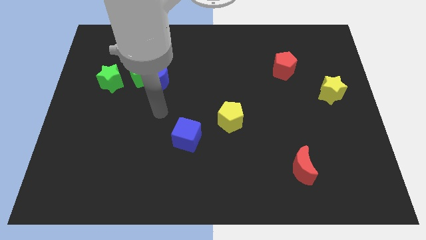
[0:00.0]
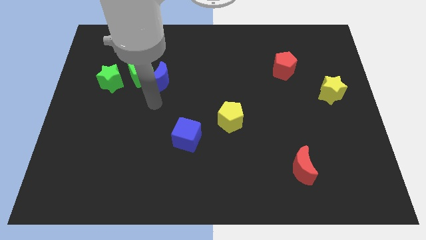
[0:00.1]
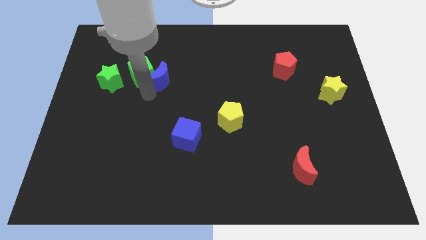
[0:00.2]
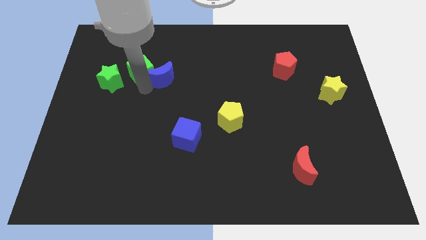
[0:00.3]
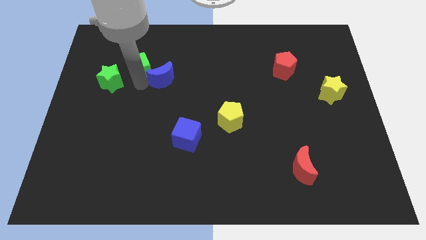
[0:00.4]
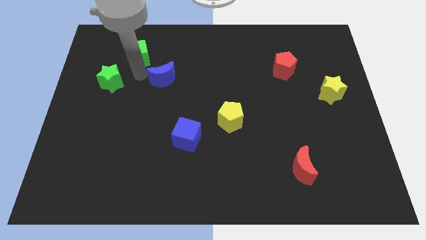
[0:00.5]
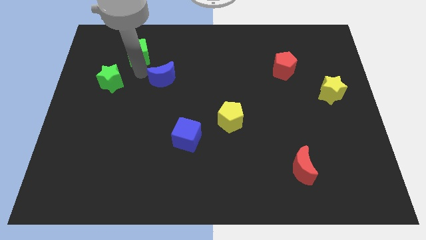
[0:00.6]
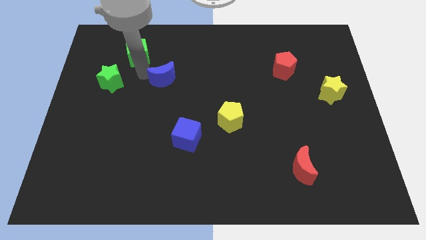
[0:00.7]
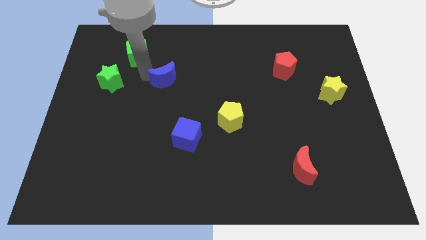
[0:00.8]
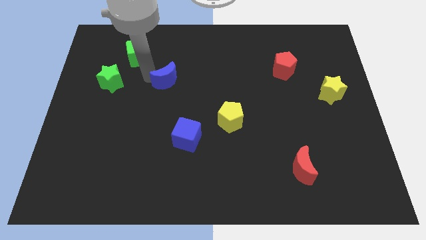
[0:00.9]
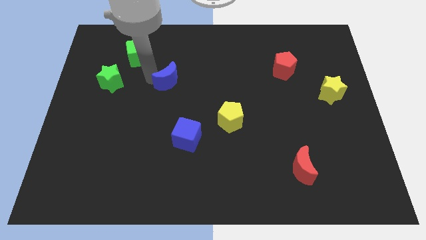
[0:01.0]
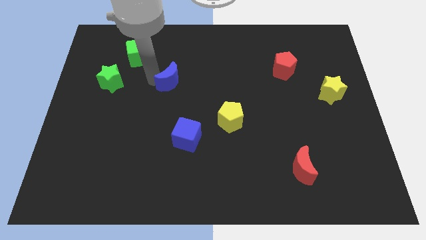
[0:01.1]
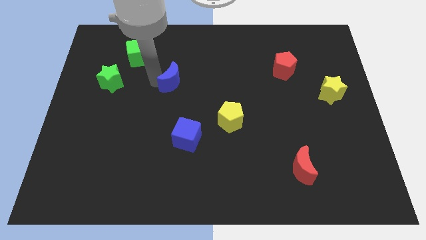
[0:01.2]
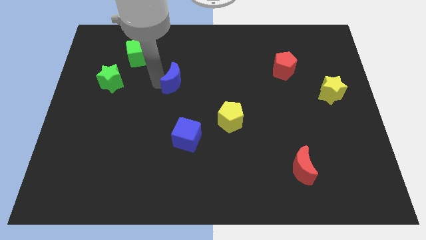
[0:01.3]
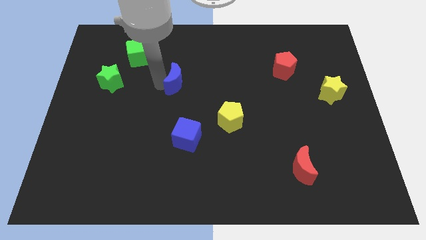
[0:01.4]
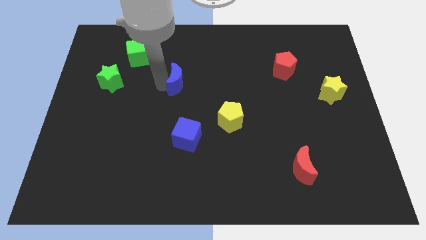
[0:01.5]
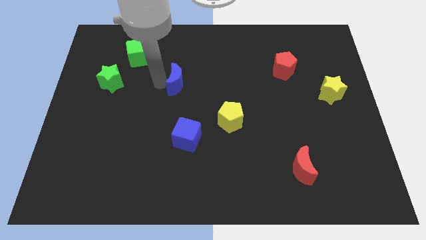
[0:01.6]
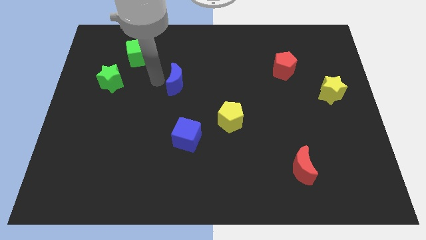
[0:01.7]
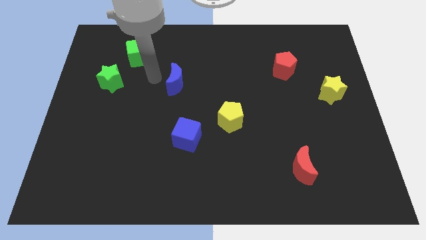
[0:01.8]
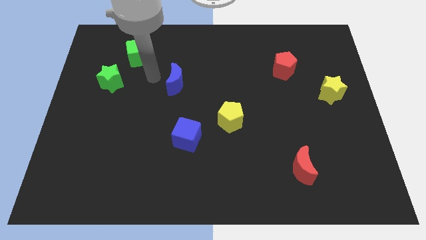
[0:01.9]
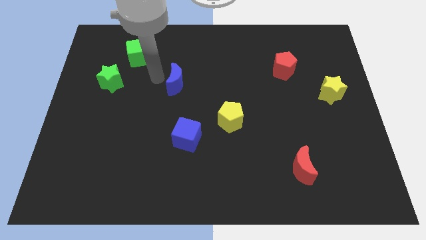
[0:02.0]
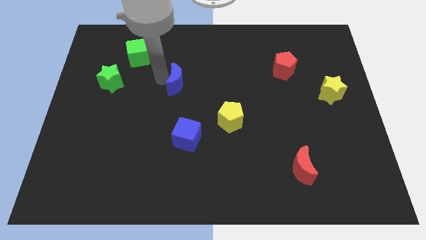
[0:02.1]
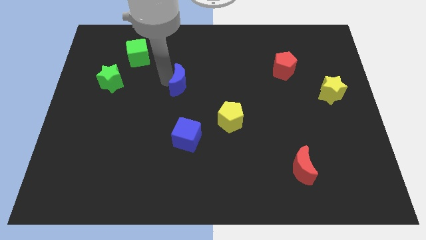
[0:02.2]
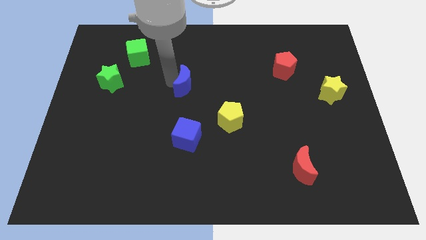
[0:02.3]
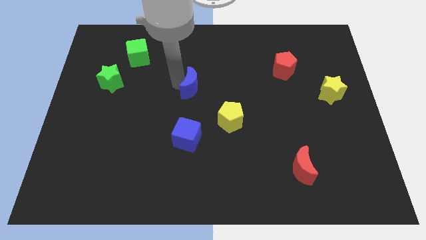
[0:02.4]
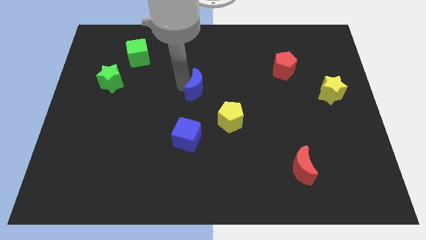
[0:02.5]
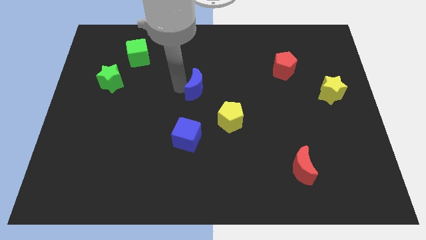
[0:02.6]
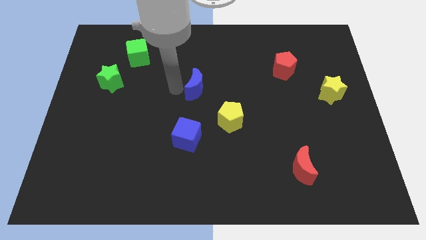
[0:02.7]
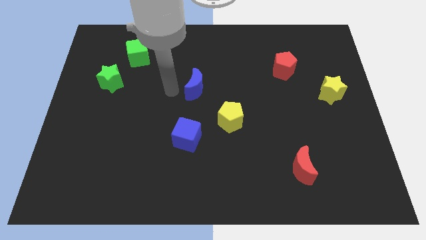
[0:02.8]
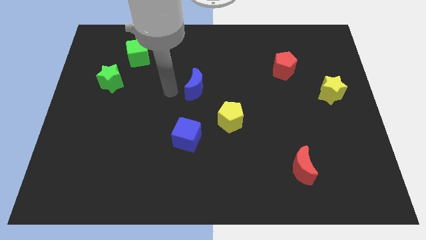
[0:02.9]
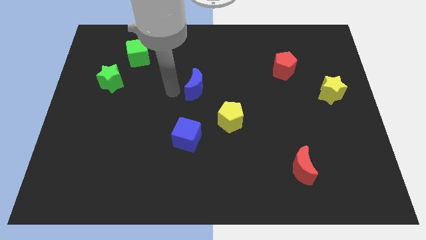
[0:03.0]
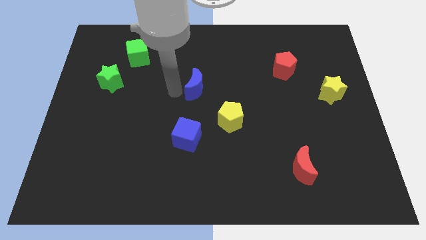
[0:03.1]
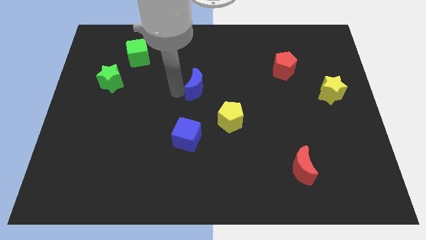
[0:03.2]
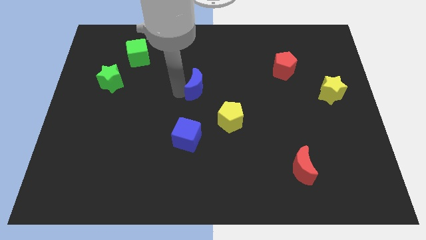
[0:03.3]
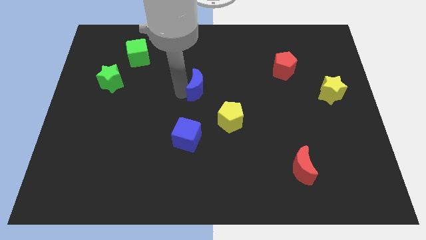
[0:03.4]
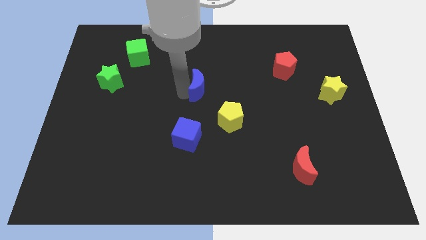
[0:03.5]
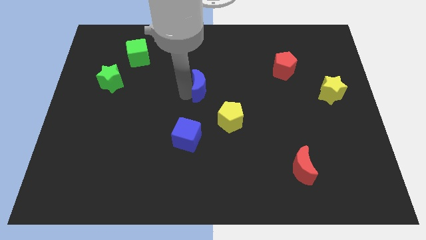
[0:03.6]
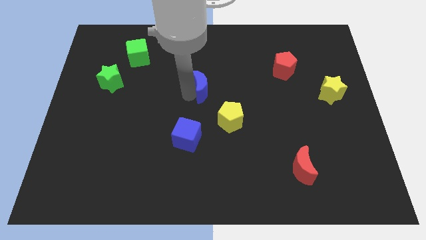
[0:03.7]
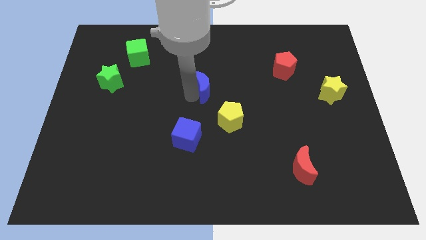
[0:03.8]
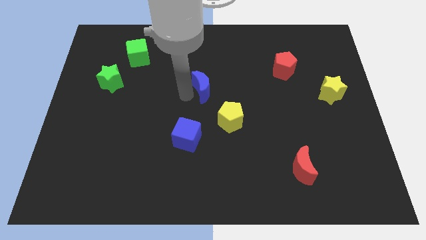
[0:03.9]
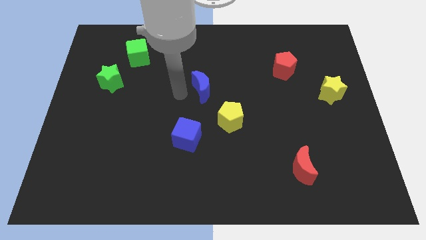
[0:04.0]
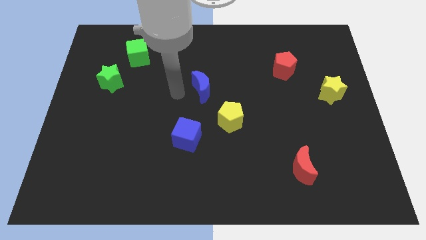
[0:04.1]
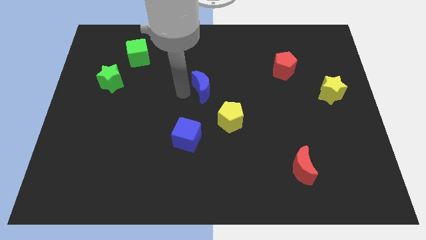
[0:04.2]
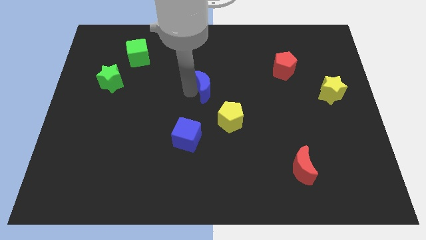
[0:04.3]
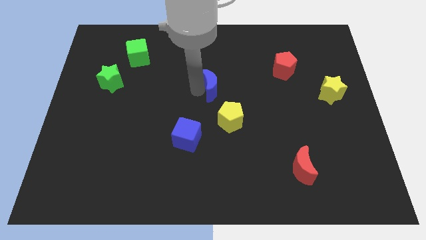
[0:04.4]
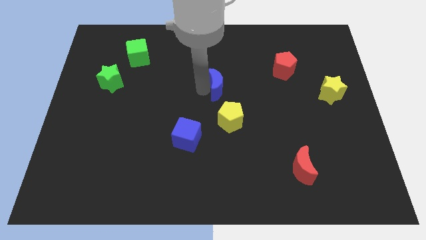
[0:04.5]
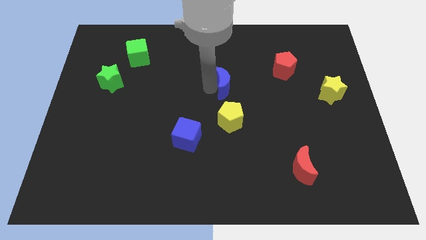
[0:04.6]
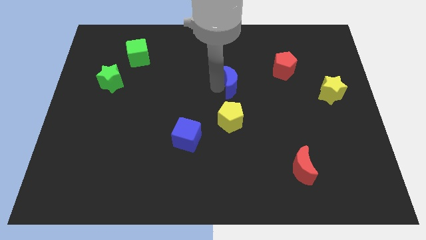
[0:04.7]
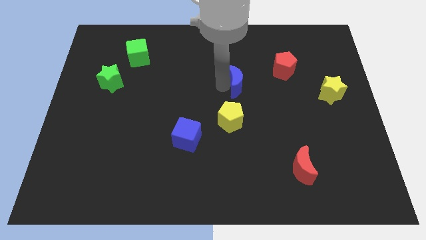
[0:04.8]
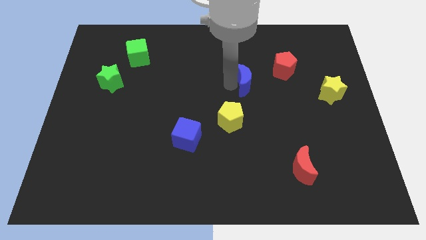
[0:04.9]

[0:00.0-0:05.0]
push the blue moon to the right

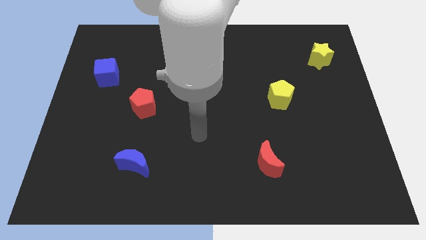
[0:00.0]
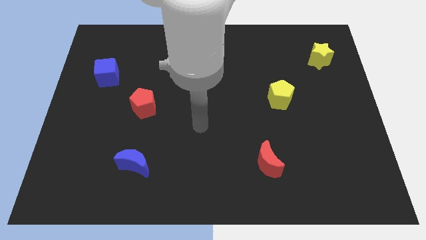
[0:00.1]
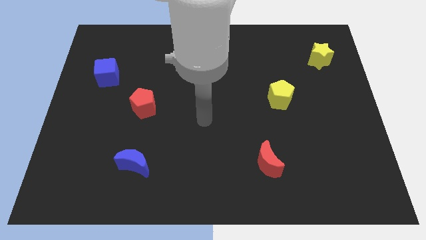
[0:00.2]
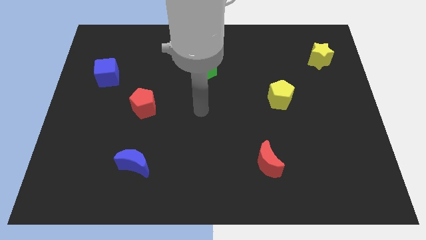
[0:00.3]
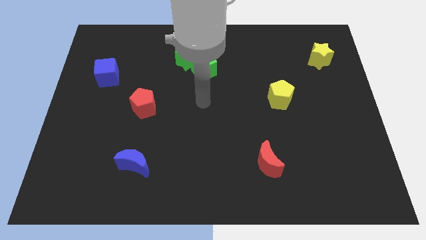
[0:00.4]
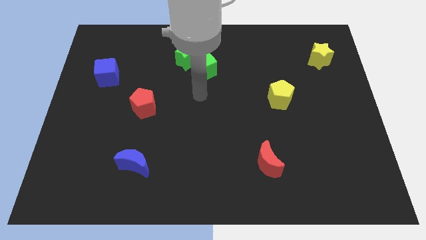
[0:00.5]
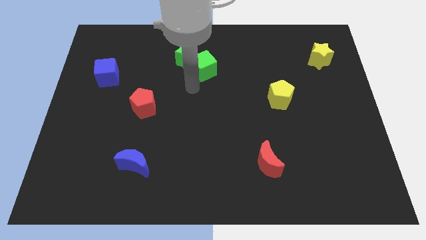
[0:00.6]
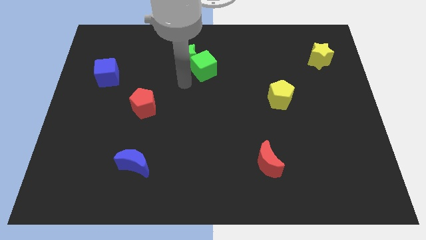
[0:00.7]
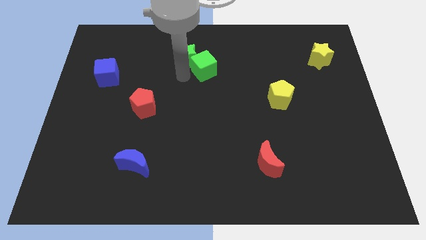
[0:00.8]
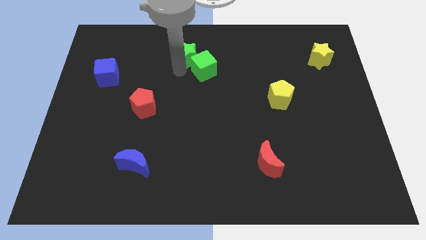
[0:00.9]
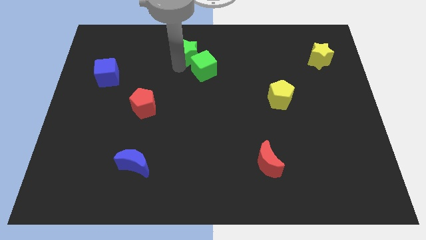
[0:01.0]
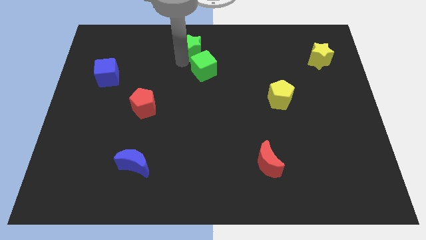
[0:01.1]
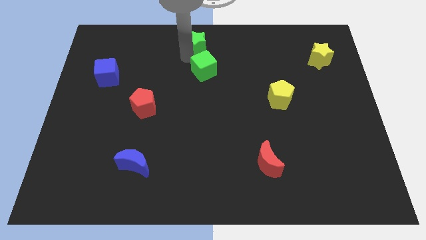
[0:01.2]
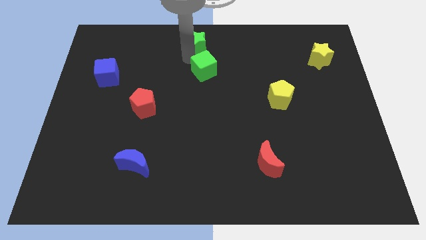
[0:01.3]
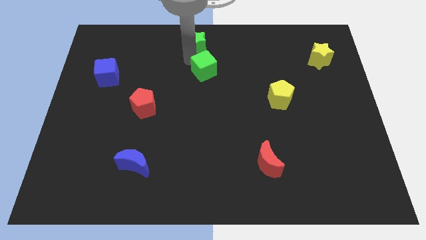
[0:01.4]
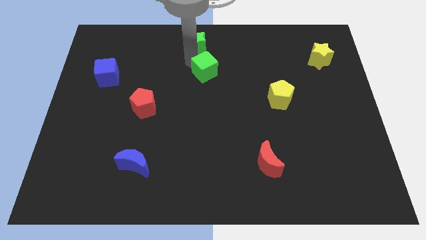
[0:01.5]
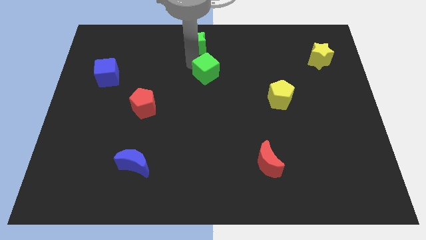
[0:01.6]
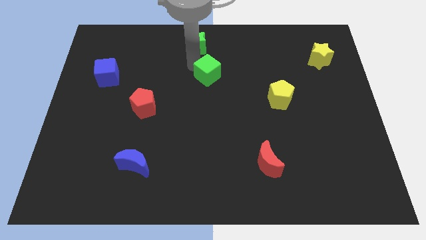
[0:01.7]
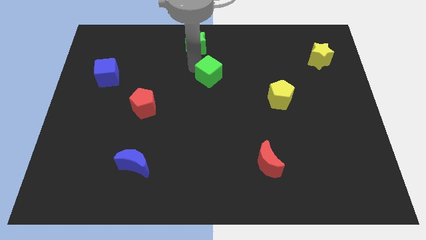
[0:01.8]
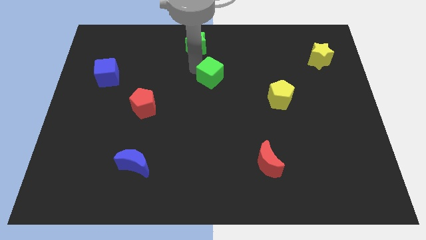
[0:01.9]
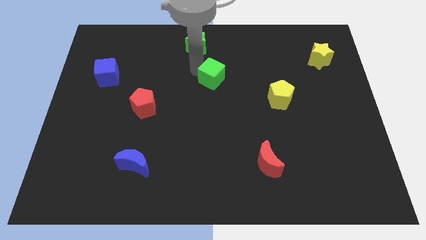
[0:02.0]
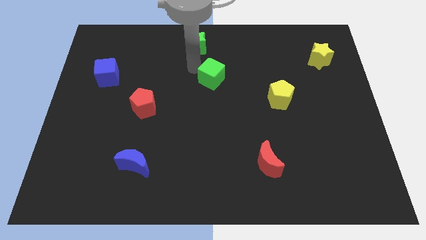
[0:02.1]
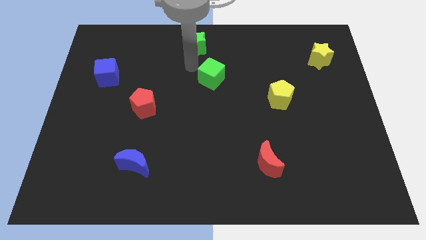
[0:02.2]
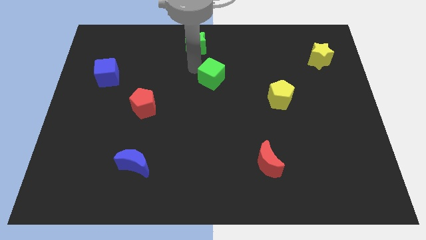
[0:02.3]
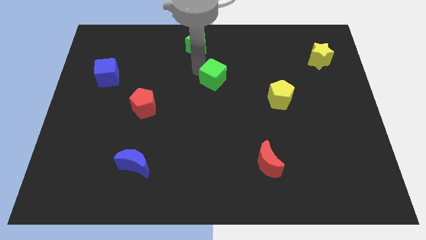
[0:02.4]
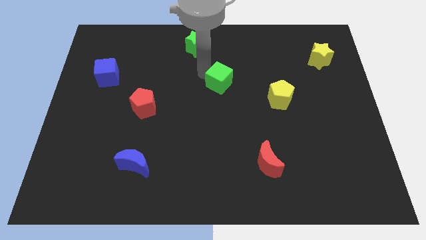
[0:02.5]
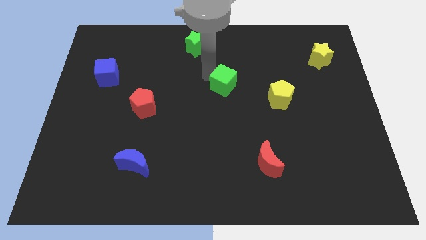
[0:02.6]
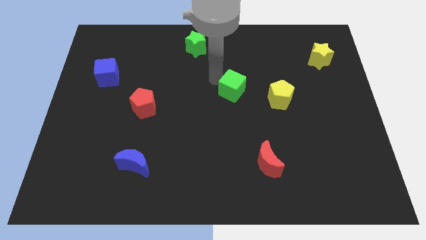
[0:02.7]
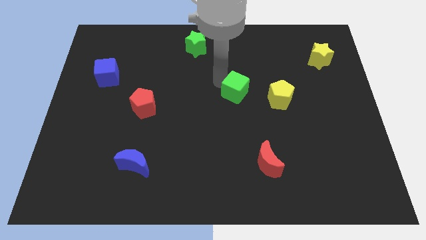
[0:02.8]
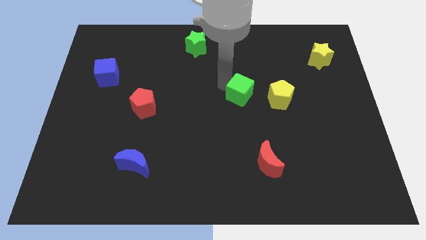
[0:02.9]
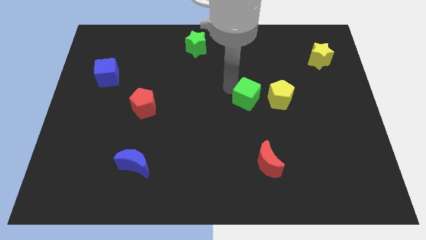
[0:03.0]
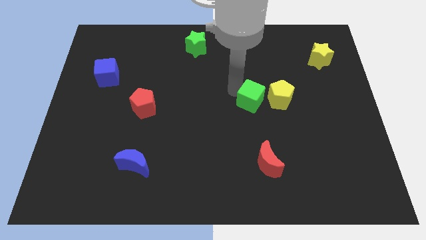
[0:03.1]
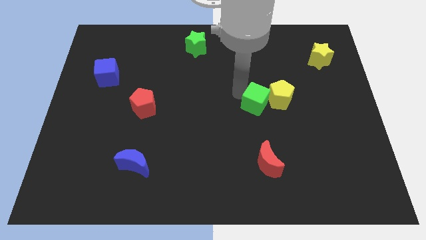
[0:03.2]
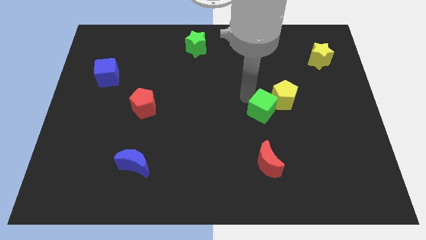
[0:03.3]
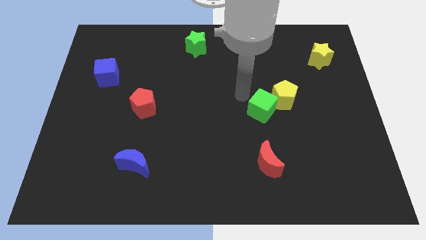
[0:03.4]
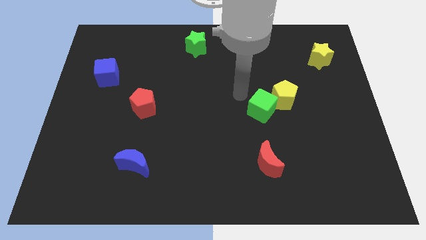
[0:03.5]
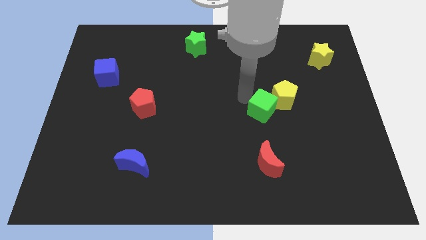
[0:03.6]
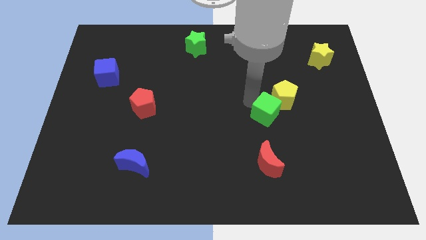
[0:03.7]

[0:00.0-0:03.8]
push the green cube down and then right
